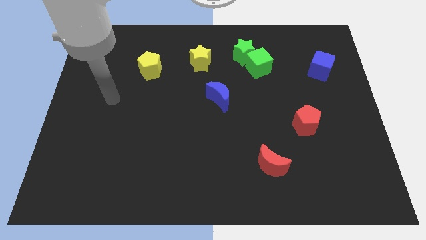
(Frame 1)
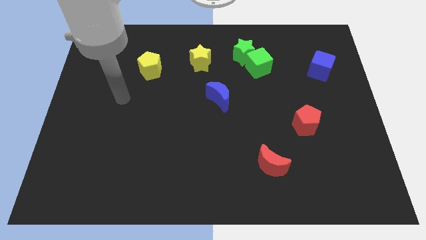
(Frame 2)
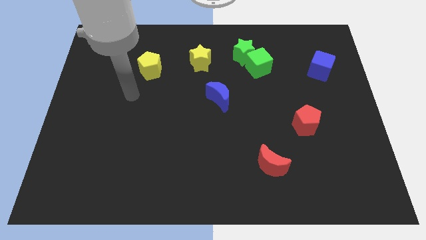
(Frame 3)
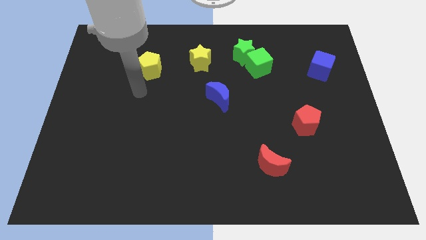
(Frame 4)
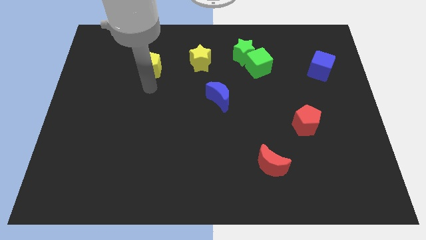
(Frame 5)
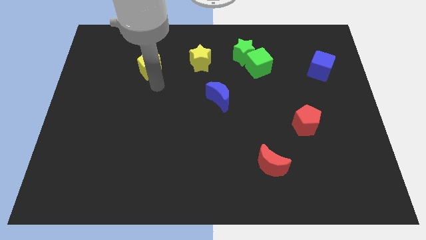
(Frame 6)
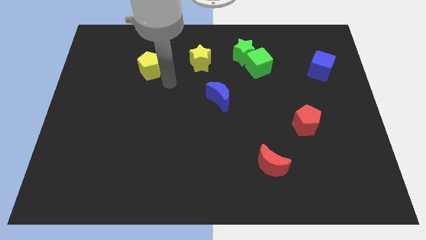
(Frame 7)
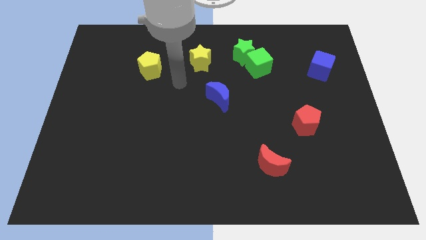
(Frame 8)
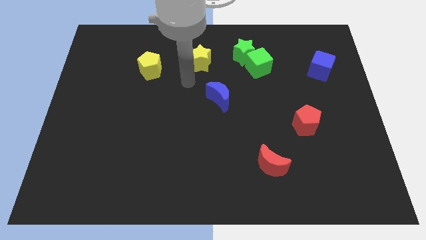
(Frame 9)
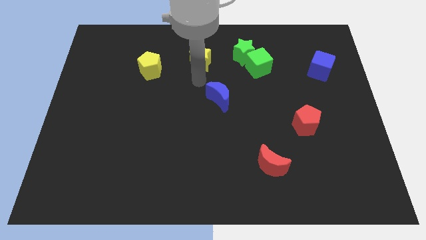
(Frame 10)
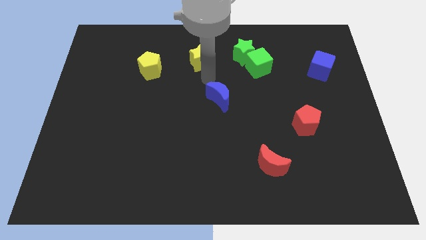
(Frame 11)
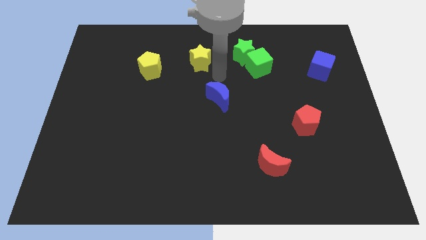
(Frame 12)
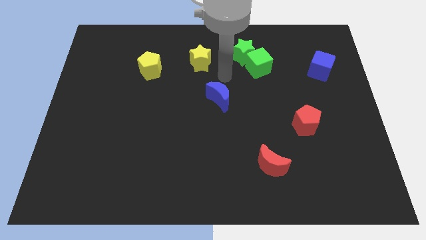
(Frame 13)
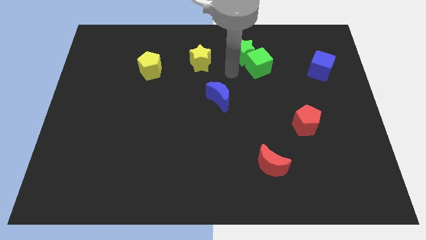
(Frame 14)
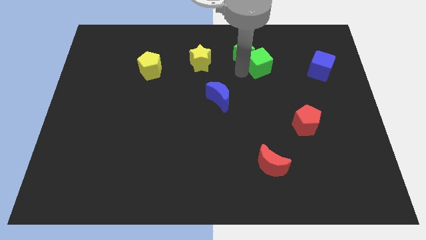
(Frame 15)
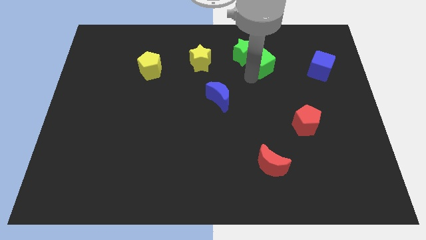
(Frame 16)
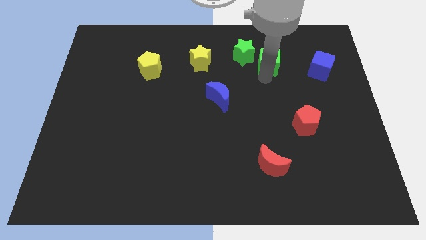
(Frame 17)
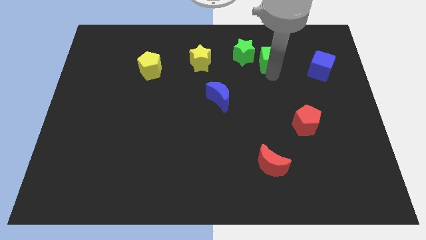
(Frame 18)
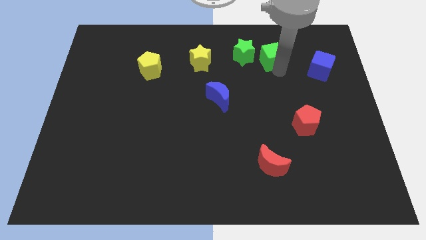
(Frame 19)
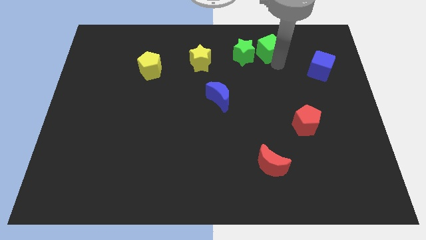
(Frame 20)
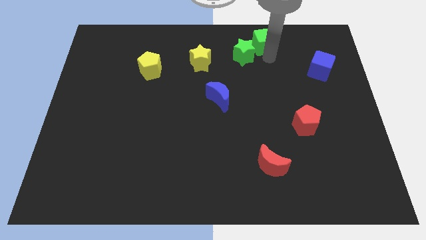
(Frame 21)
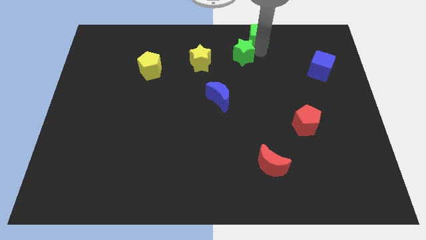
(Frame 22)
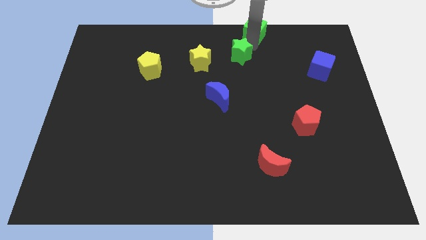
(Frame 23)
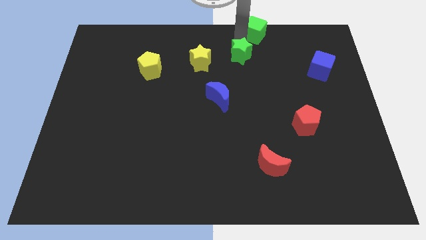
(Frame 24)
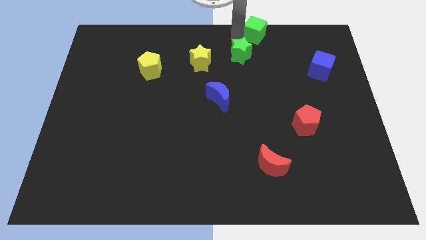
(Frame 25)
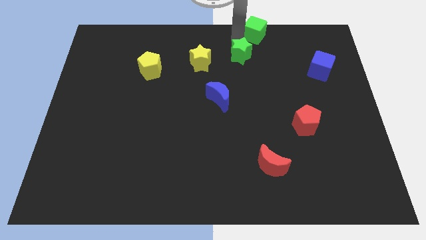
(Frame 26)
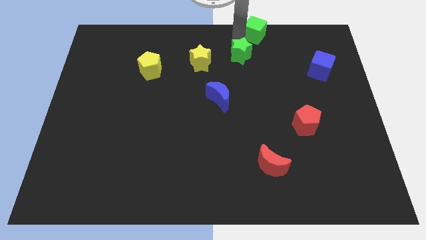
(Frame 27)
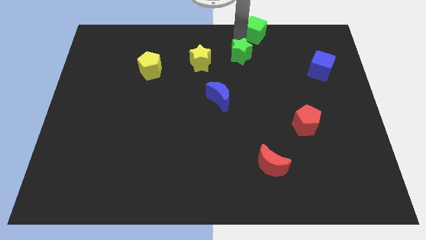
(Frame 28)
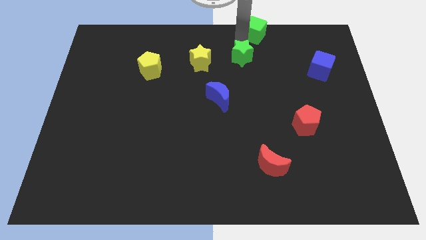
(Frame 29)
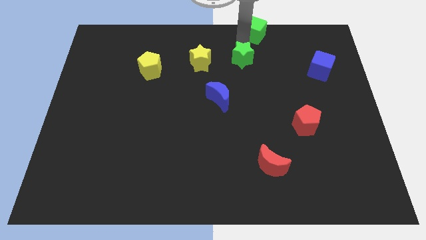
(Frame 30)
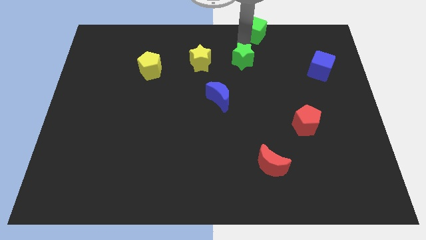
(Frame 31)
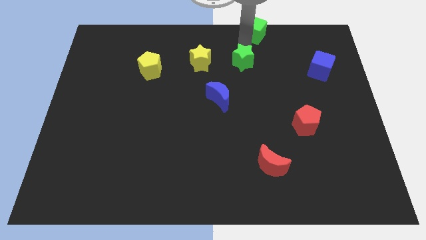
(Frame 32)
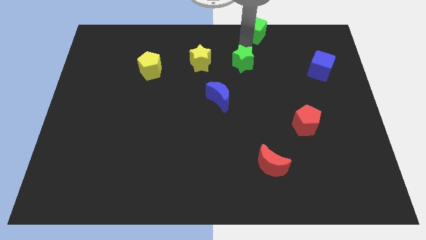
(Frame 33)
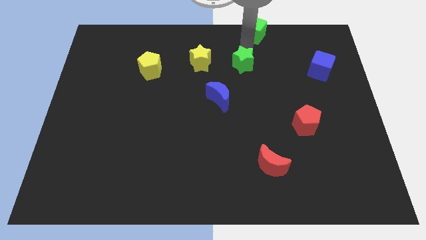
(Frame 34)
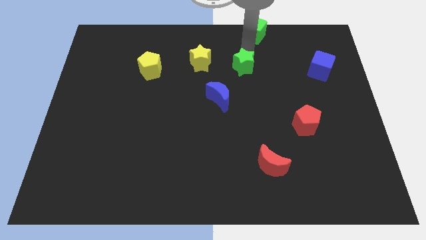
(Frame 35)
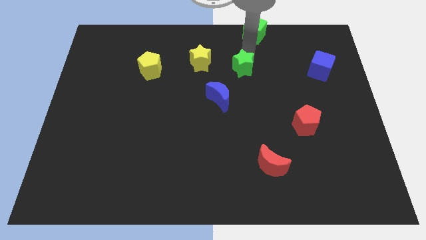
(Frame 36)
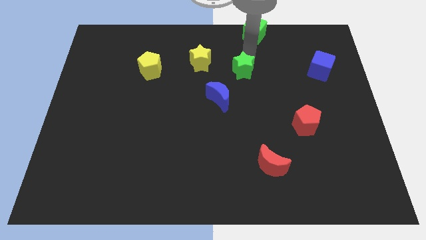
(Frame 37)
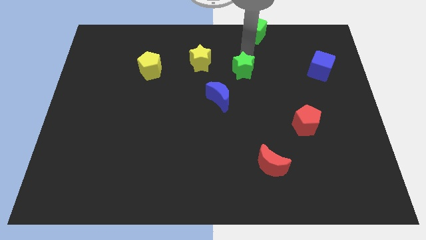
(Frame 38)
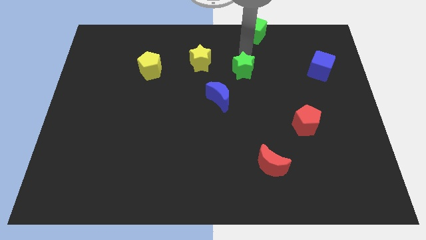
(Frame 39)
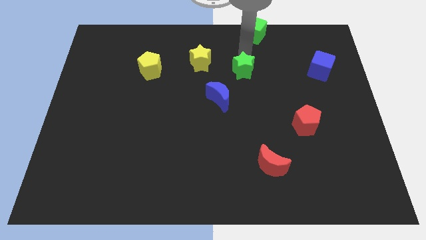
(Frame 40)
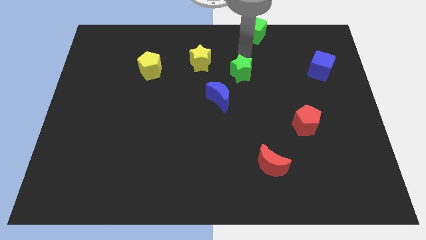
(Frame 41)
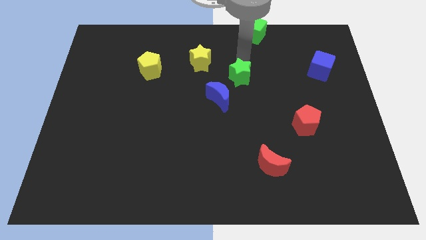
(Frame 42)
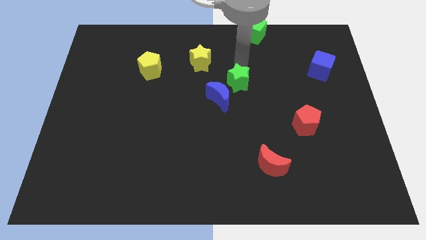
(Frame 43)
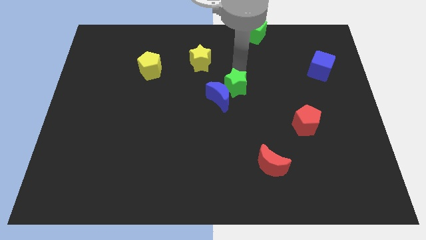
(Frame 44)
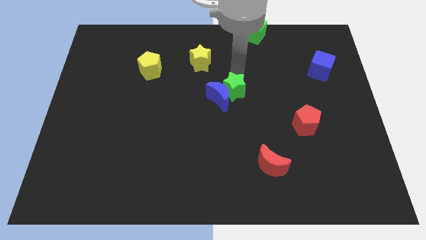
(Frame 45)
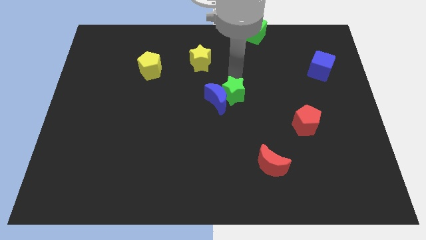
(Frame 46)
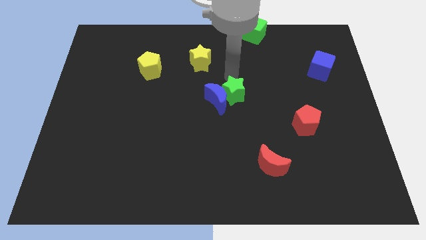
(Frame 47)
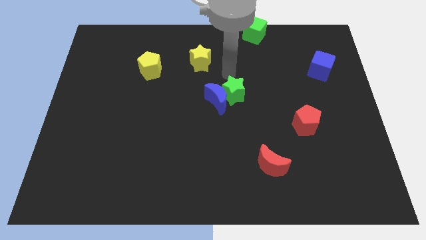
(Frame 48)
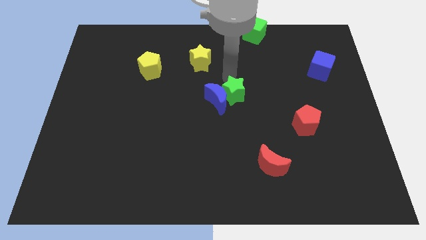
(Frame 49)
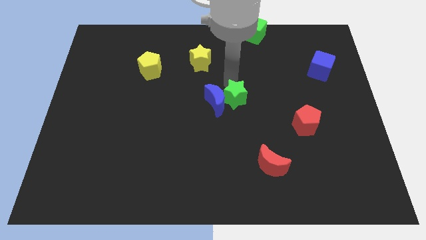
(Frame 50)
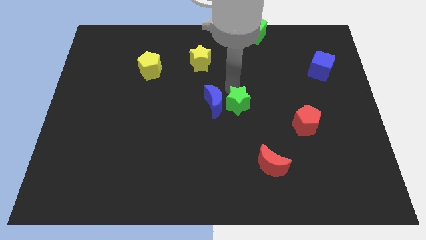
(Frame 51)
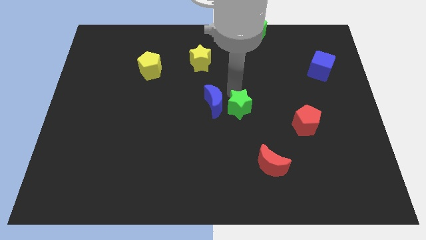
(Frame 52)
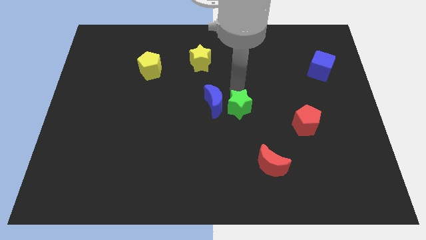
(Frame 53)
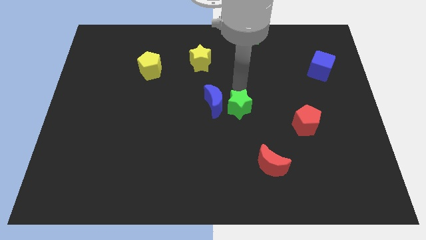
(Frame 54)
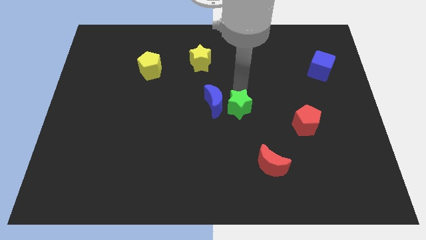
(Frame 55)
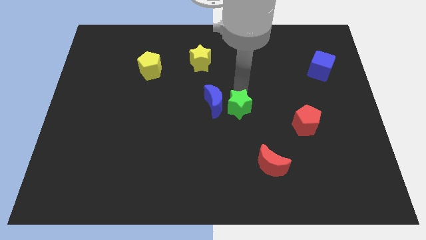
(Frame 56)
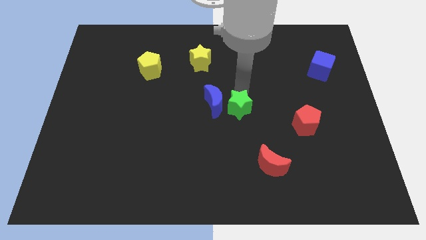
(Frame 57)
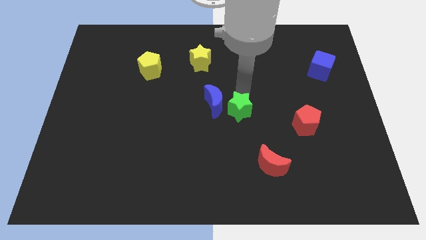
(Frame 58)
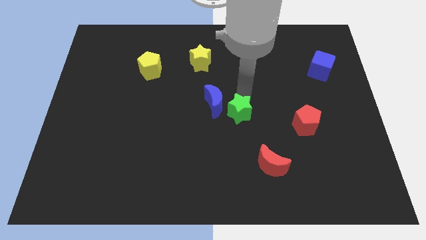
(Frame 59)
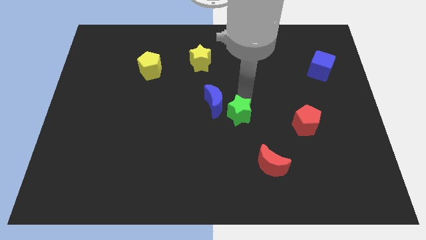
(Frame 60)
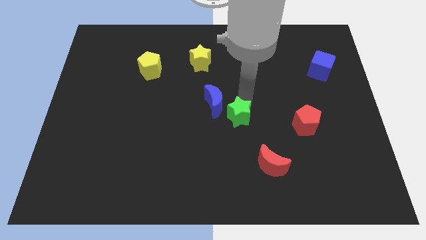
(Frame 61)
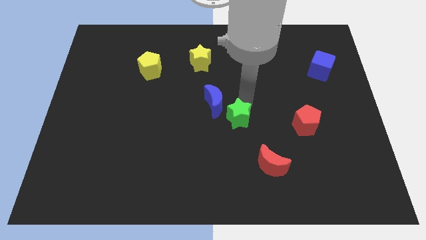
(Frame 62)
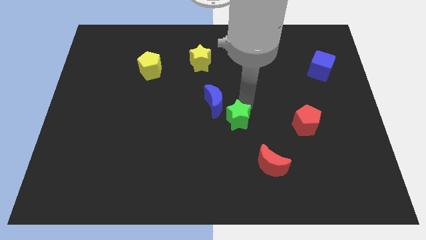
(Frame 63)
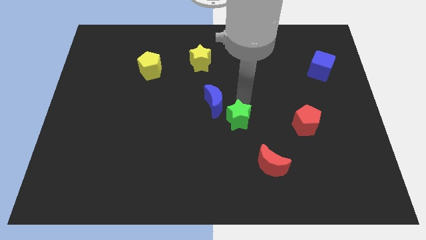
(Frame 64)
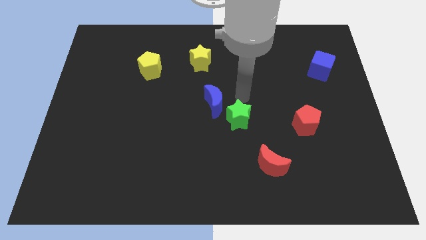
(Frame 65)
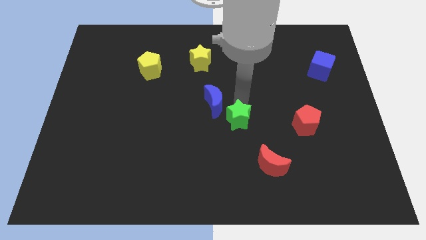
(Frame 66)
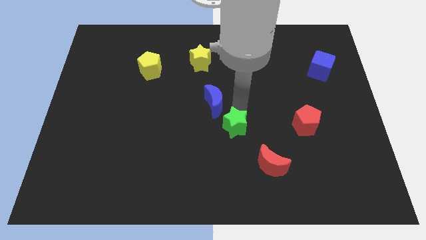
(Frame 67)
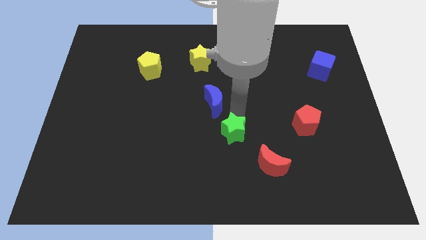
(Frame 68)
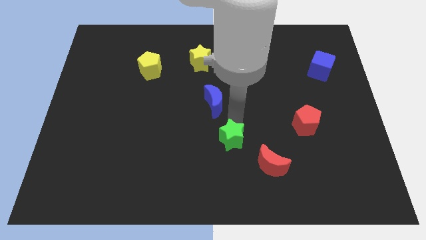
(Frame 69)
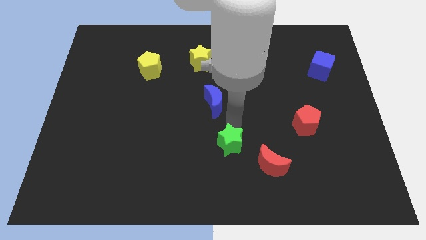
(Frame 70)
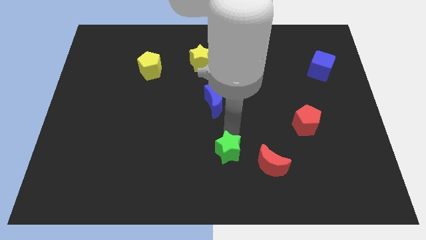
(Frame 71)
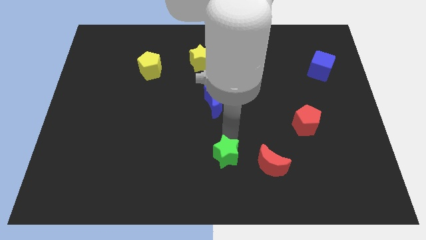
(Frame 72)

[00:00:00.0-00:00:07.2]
push the green star to the bottom side
